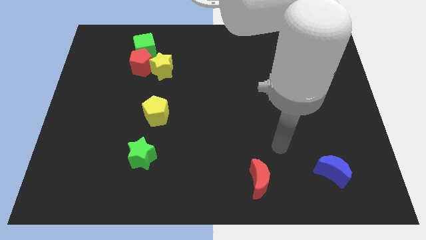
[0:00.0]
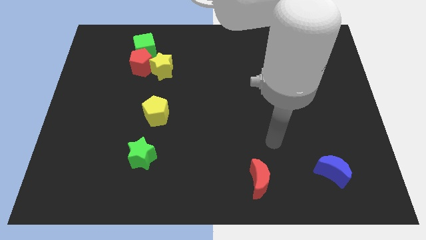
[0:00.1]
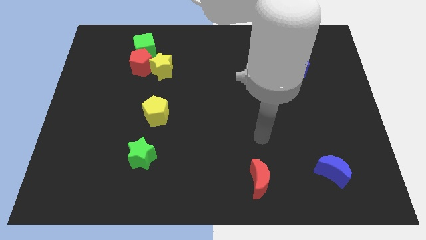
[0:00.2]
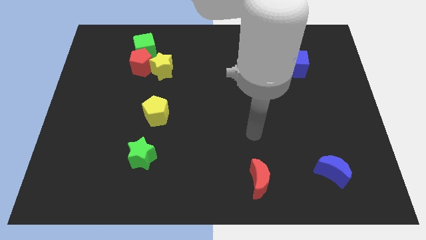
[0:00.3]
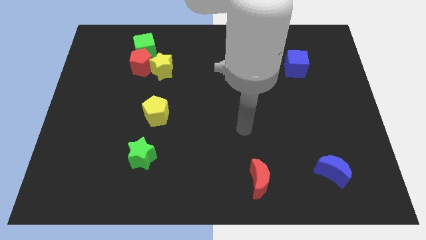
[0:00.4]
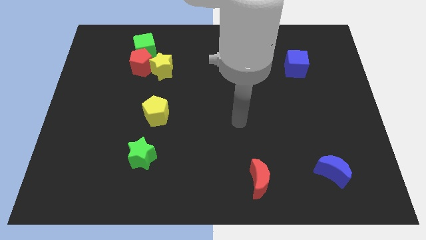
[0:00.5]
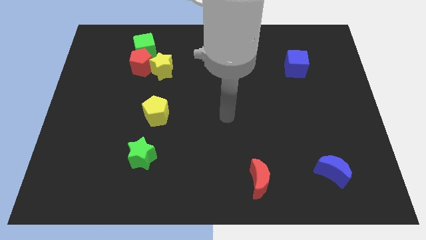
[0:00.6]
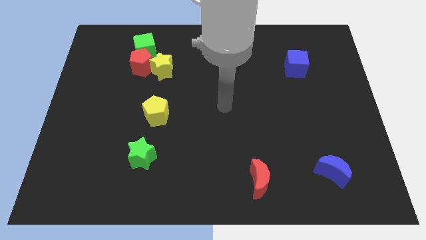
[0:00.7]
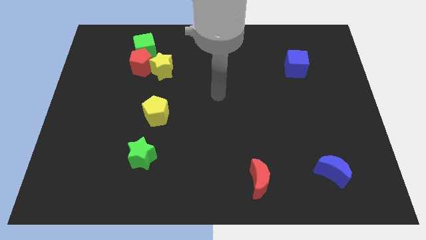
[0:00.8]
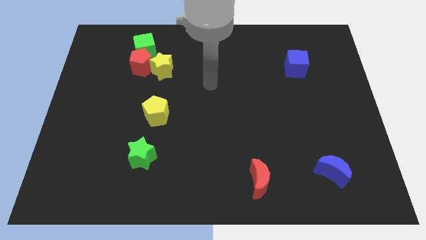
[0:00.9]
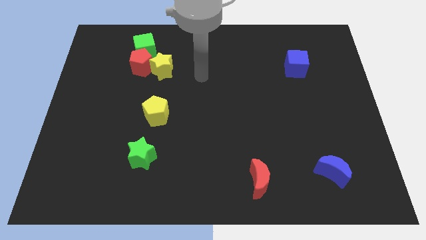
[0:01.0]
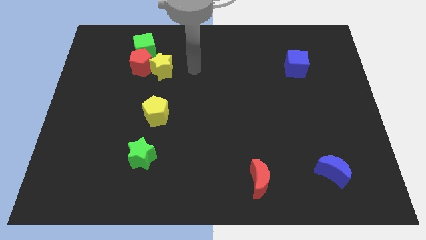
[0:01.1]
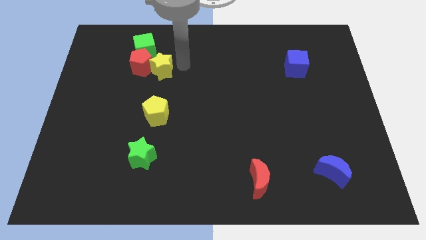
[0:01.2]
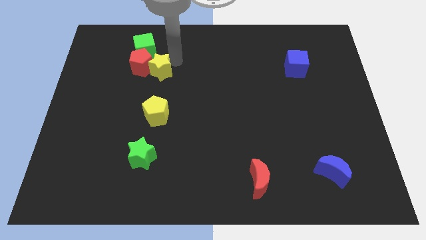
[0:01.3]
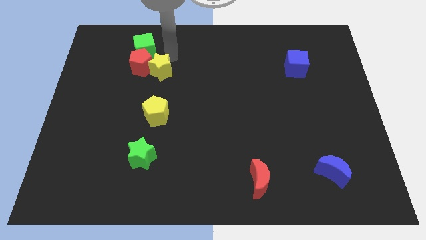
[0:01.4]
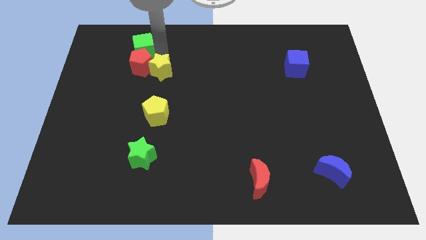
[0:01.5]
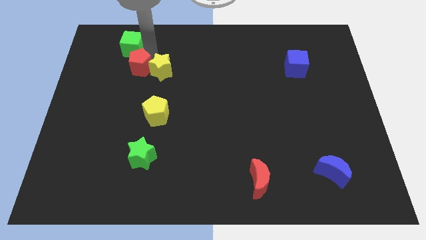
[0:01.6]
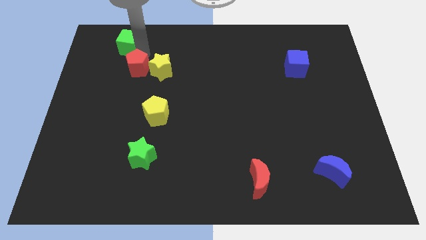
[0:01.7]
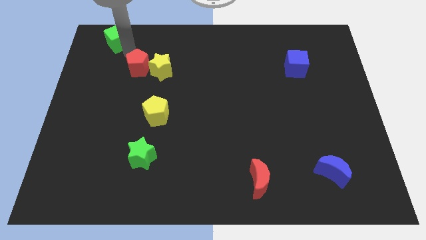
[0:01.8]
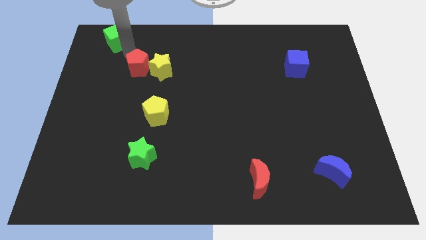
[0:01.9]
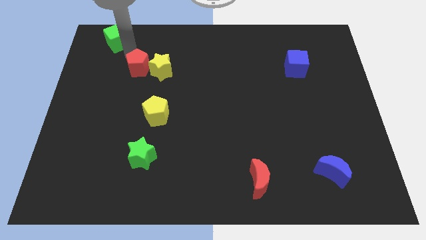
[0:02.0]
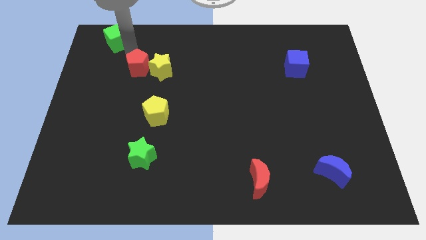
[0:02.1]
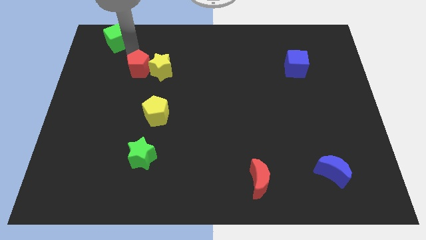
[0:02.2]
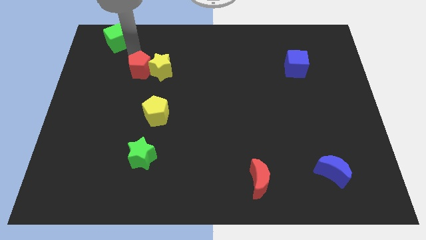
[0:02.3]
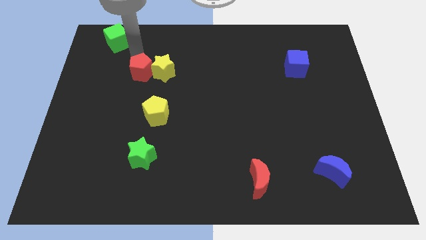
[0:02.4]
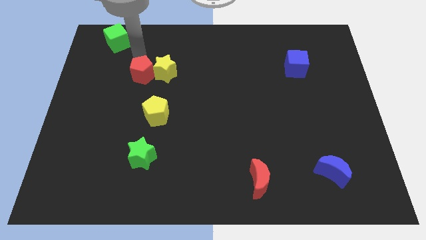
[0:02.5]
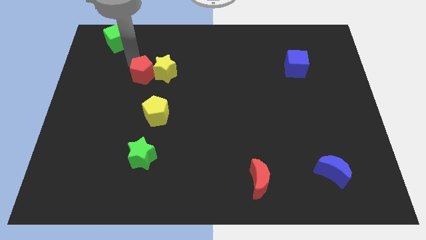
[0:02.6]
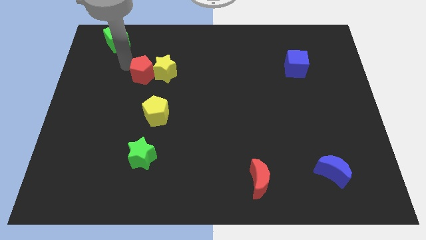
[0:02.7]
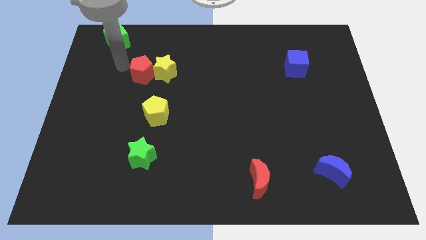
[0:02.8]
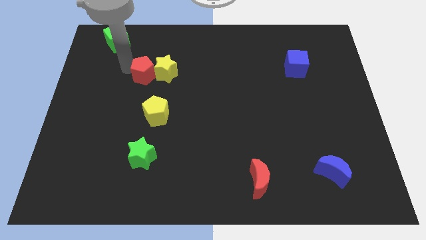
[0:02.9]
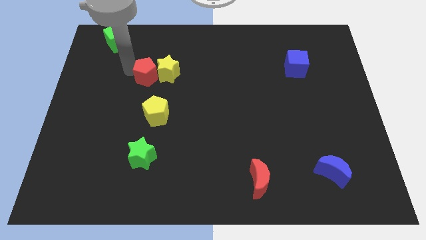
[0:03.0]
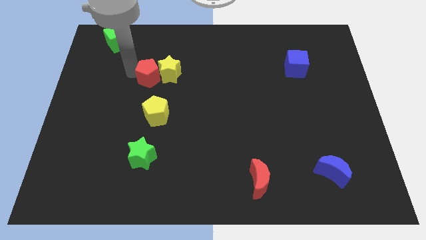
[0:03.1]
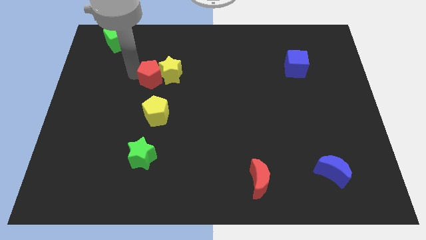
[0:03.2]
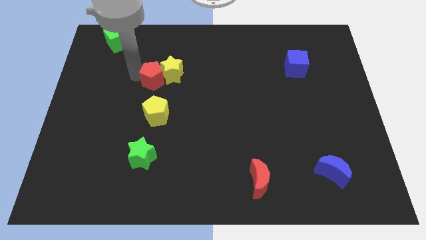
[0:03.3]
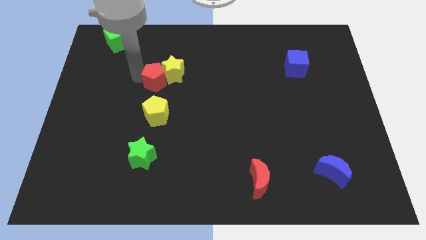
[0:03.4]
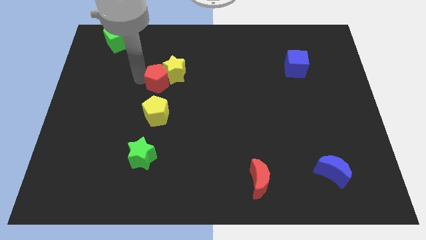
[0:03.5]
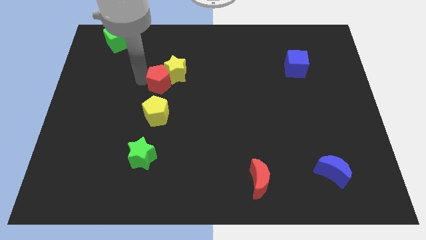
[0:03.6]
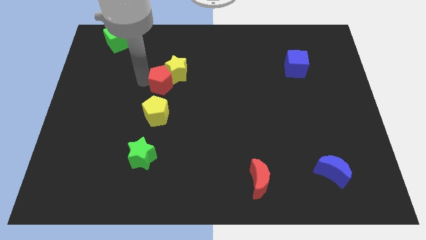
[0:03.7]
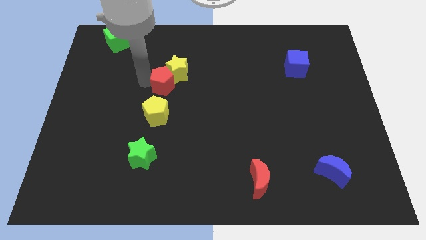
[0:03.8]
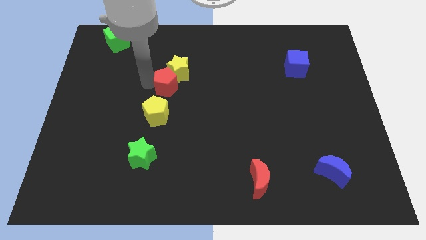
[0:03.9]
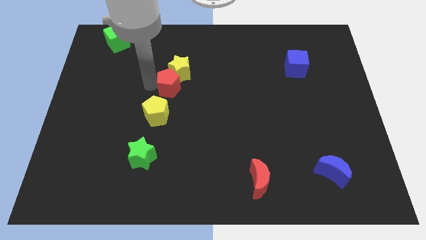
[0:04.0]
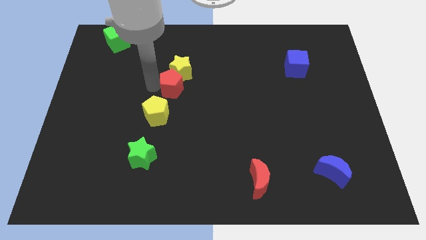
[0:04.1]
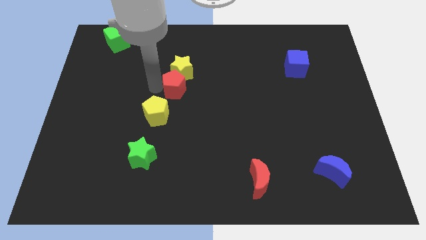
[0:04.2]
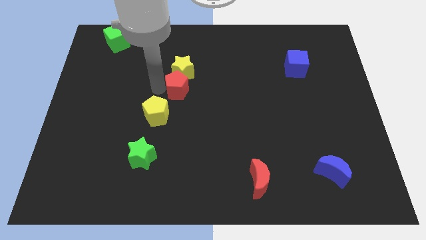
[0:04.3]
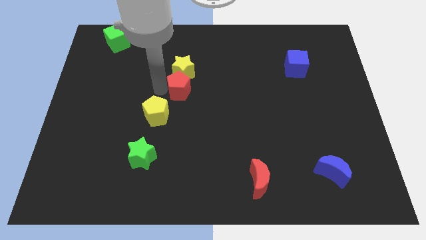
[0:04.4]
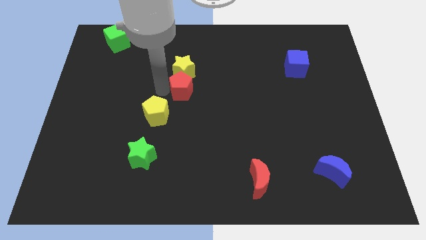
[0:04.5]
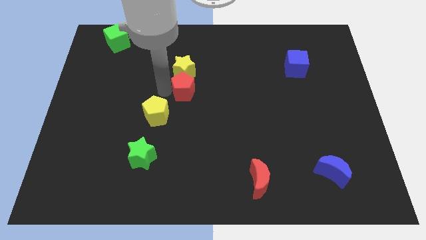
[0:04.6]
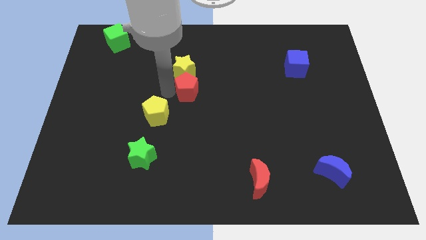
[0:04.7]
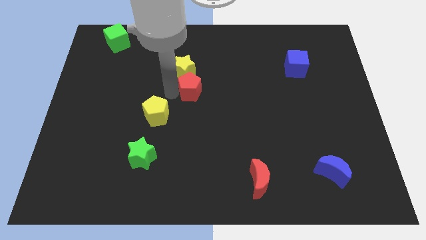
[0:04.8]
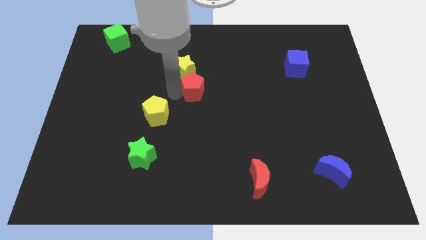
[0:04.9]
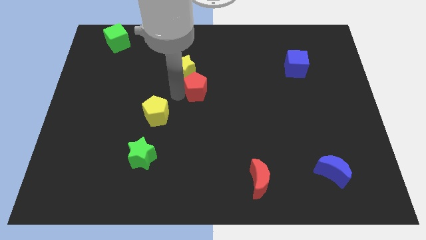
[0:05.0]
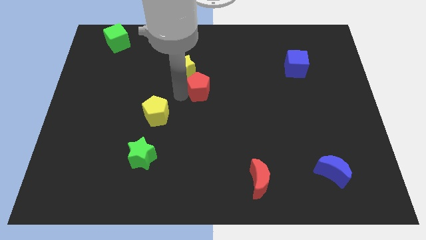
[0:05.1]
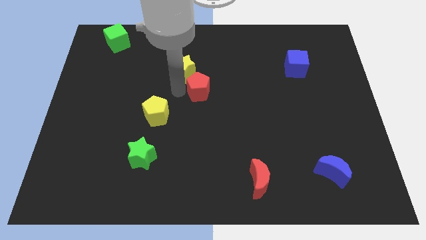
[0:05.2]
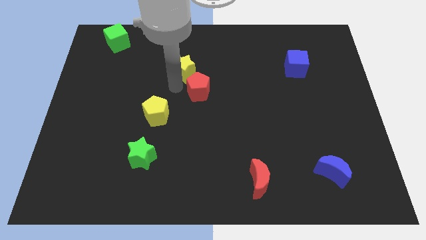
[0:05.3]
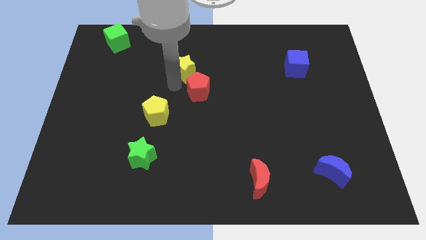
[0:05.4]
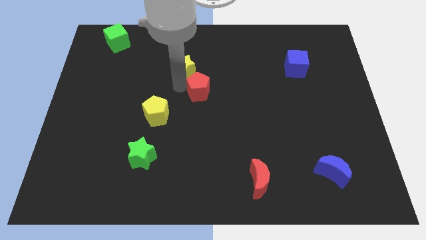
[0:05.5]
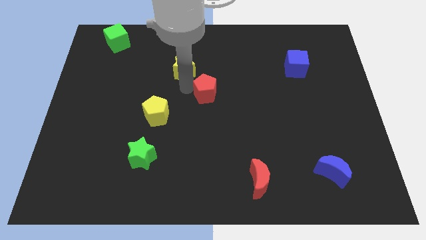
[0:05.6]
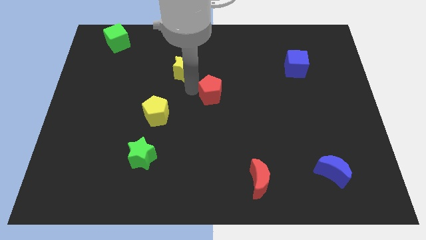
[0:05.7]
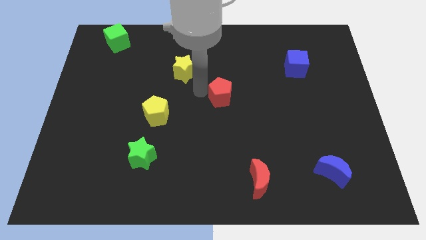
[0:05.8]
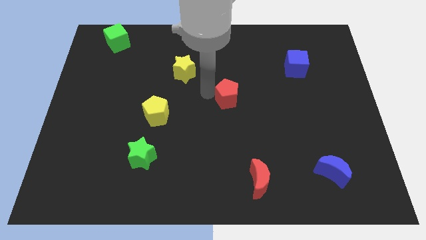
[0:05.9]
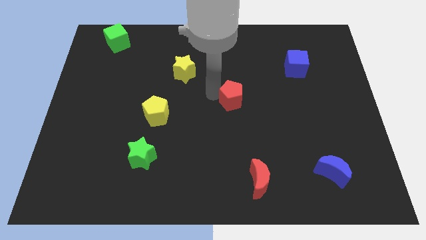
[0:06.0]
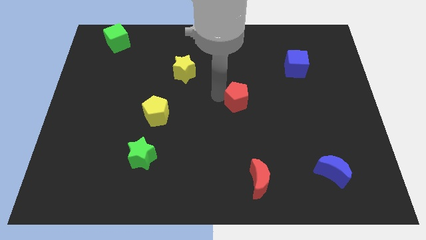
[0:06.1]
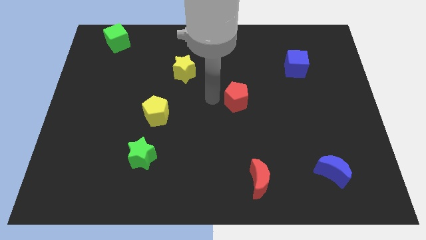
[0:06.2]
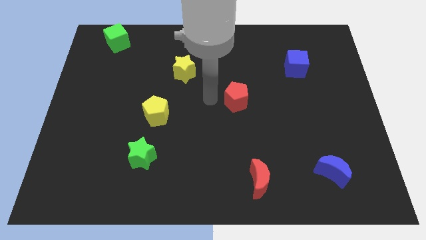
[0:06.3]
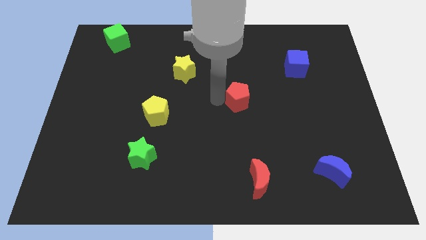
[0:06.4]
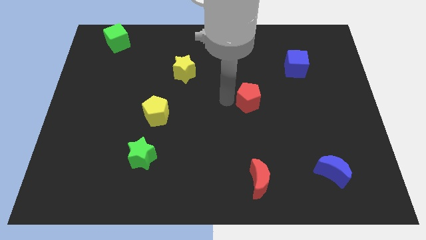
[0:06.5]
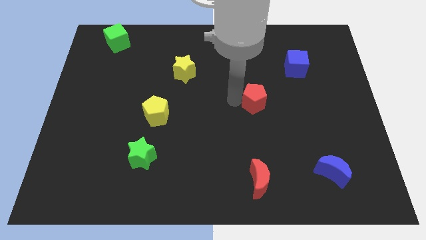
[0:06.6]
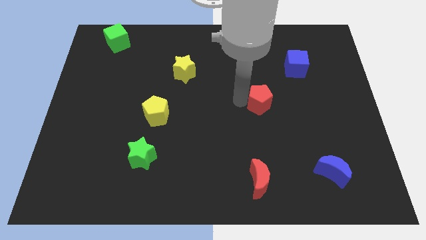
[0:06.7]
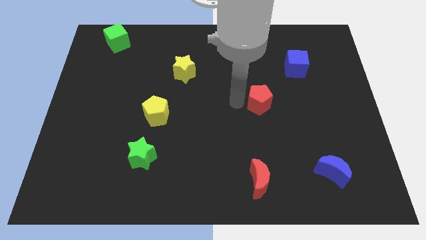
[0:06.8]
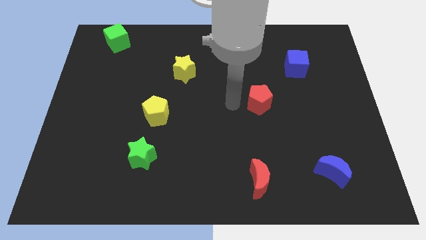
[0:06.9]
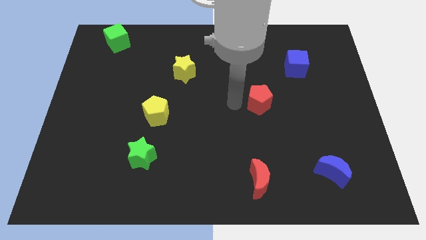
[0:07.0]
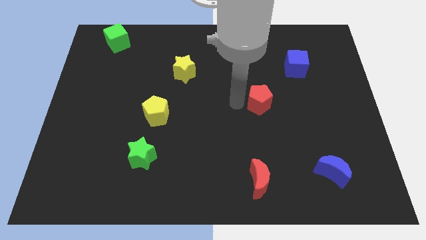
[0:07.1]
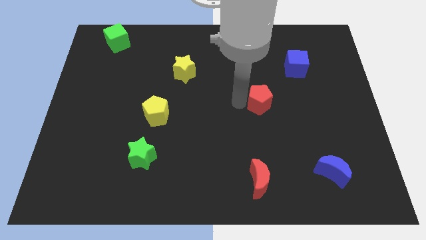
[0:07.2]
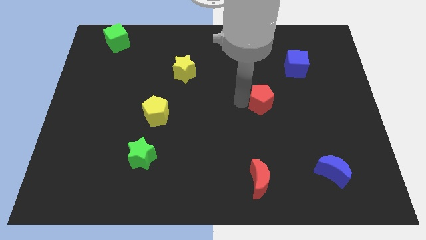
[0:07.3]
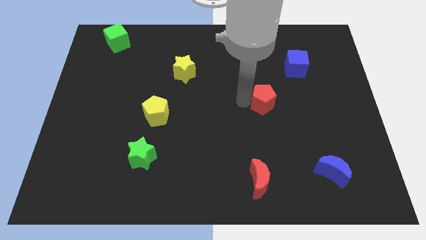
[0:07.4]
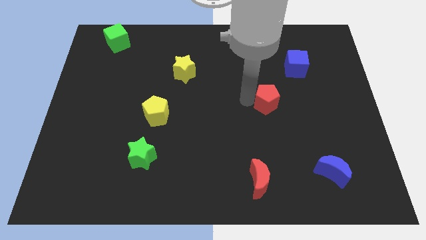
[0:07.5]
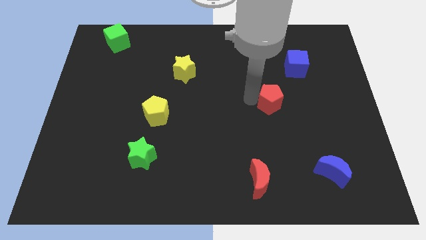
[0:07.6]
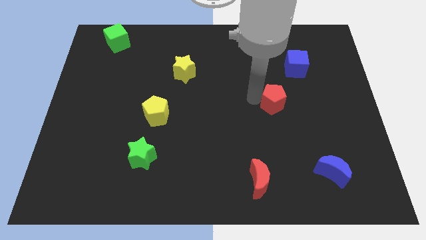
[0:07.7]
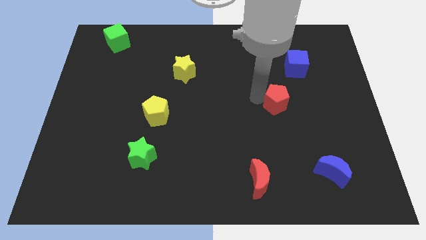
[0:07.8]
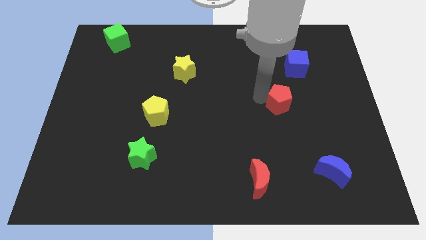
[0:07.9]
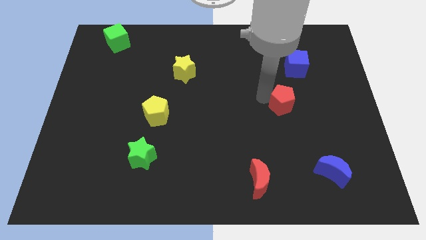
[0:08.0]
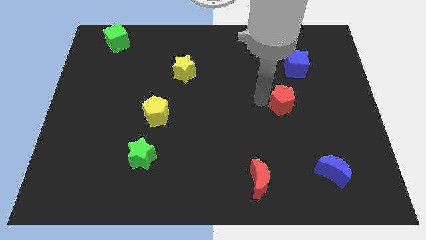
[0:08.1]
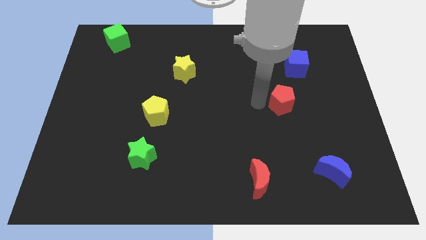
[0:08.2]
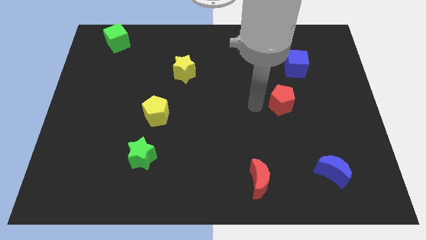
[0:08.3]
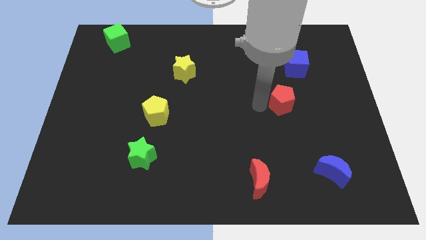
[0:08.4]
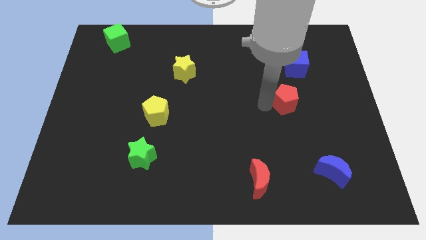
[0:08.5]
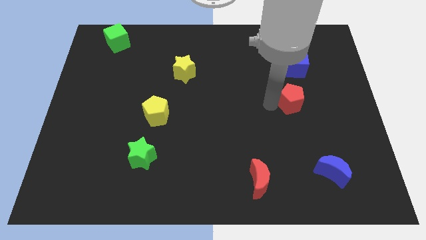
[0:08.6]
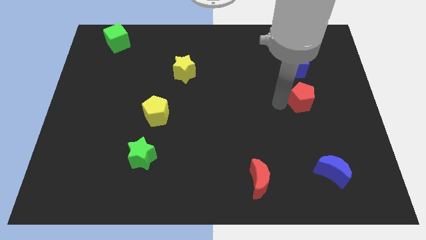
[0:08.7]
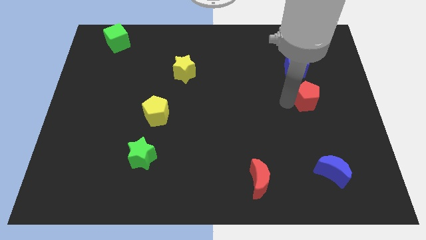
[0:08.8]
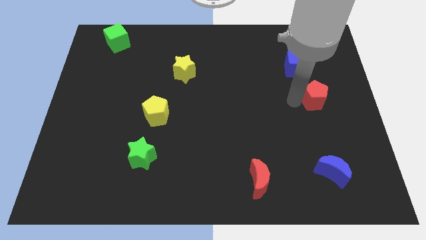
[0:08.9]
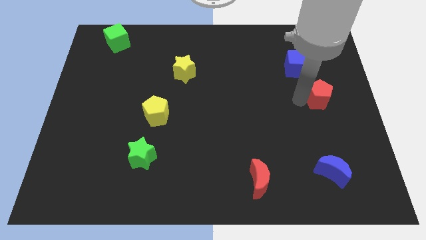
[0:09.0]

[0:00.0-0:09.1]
push the red pentagon to the center right
